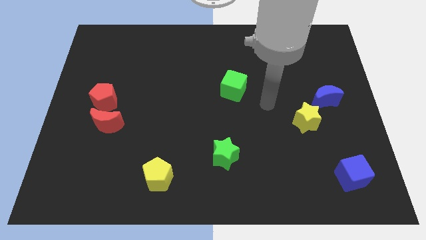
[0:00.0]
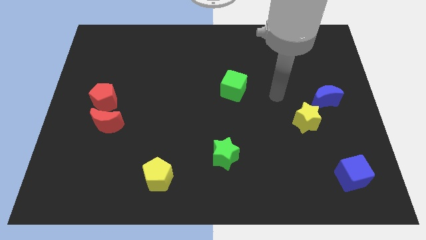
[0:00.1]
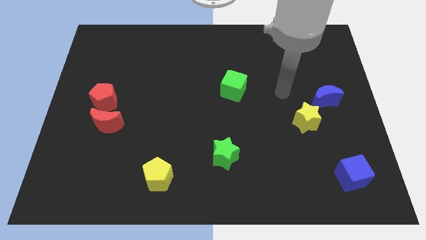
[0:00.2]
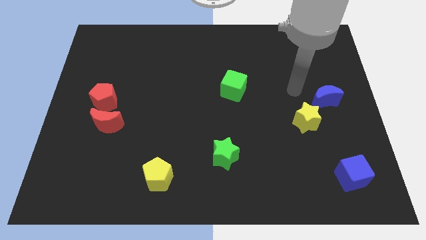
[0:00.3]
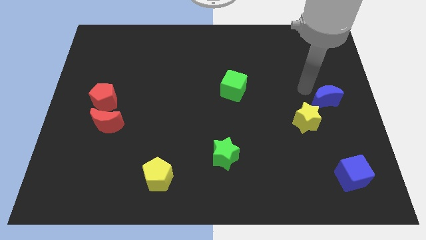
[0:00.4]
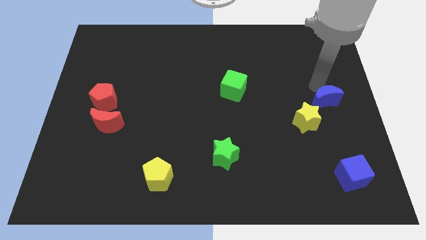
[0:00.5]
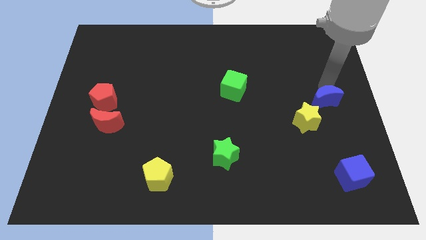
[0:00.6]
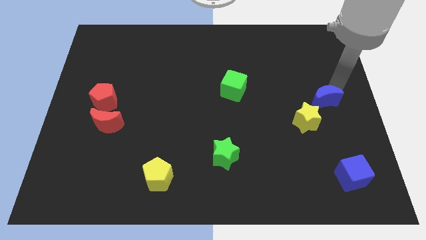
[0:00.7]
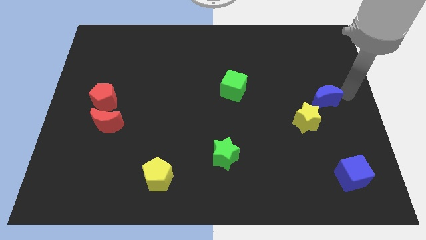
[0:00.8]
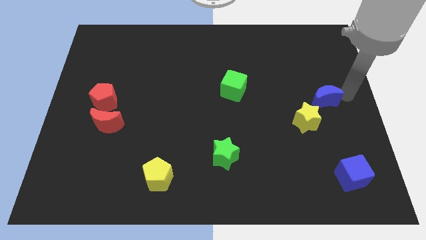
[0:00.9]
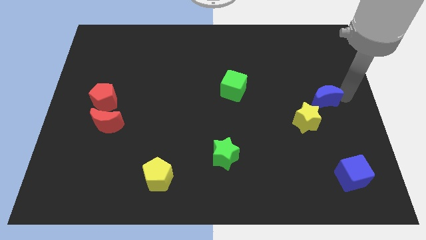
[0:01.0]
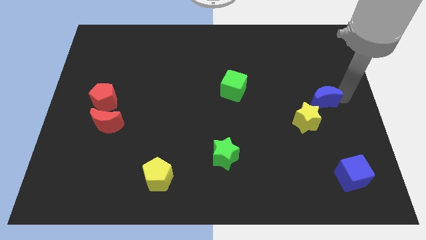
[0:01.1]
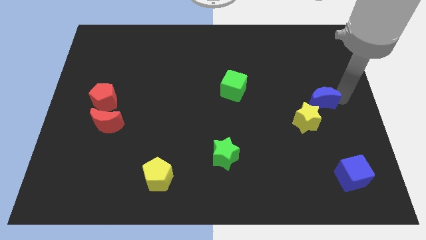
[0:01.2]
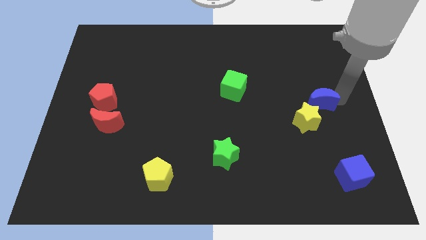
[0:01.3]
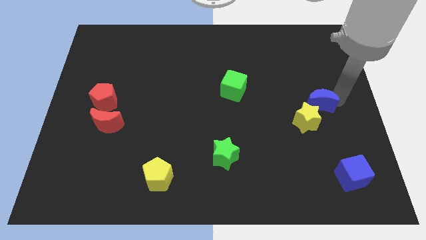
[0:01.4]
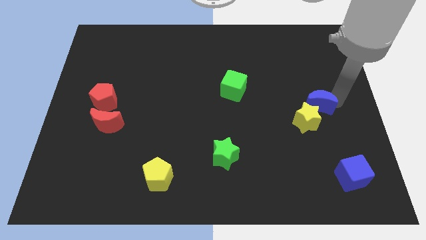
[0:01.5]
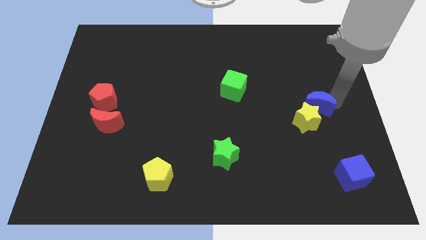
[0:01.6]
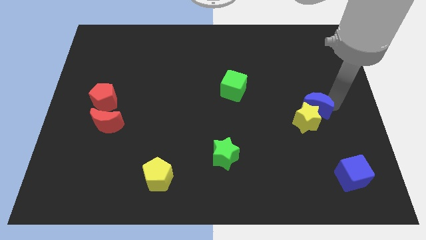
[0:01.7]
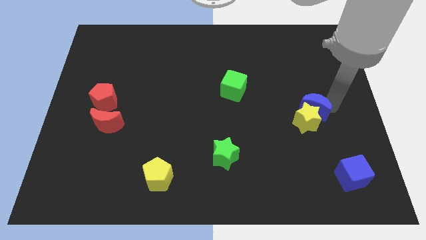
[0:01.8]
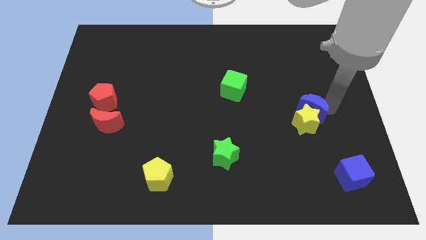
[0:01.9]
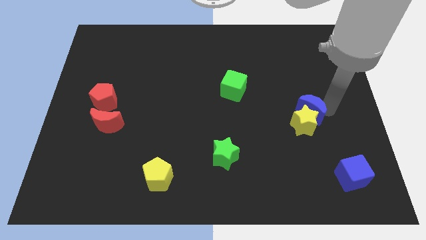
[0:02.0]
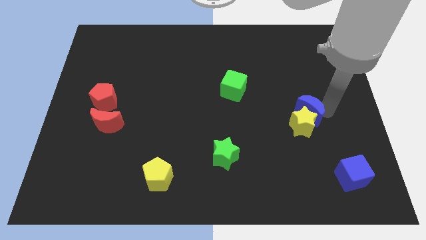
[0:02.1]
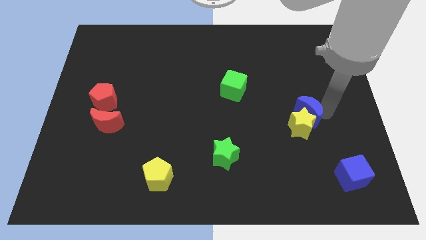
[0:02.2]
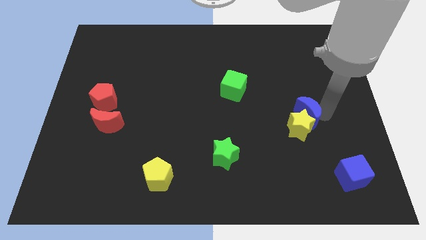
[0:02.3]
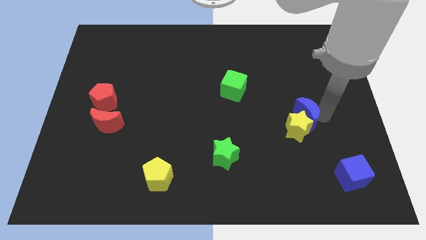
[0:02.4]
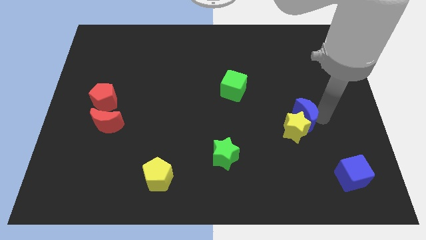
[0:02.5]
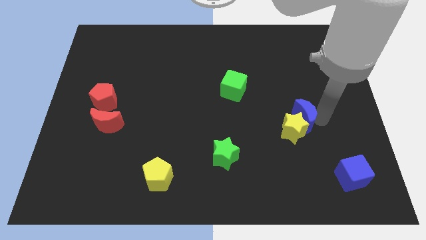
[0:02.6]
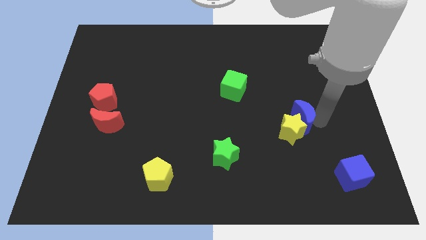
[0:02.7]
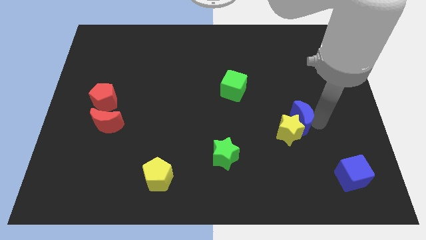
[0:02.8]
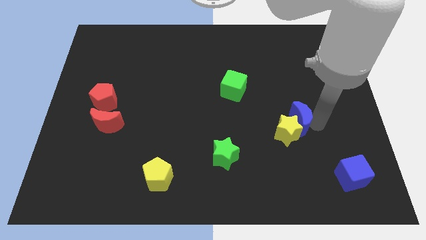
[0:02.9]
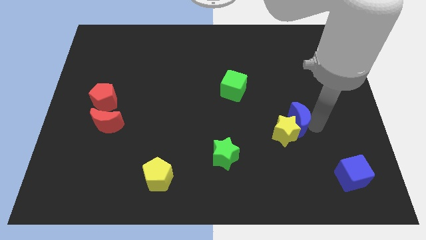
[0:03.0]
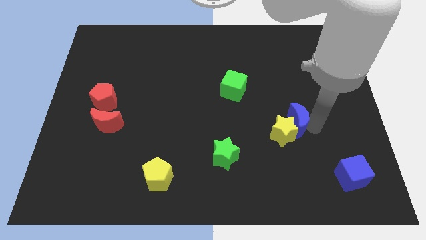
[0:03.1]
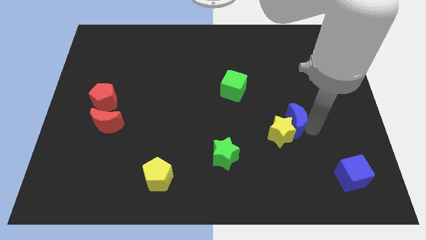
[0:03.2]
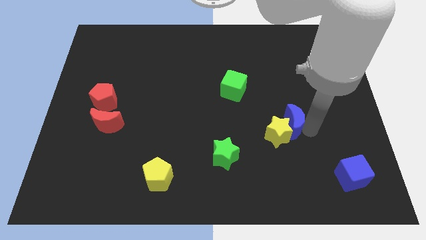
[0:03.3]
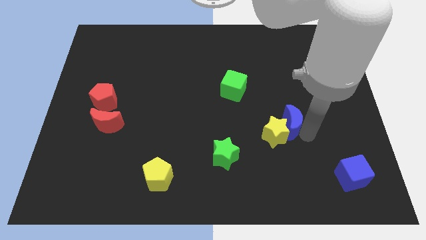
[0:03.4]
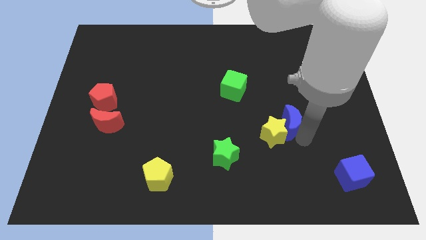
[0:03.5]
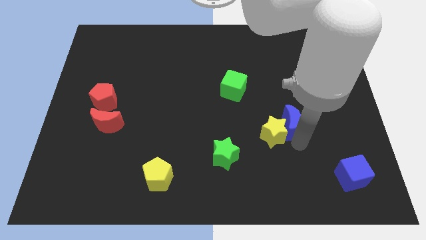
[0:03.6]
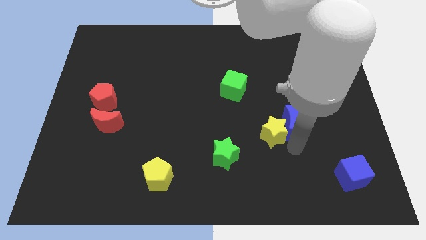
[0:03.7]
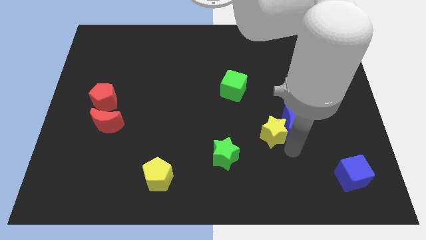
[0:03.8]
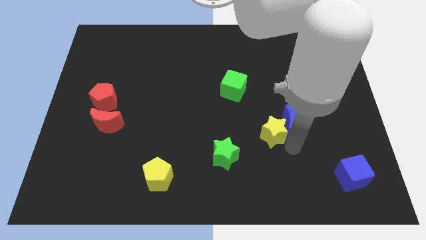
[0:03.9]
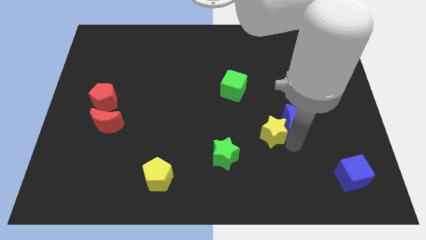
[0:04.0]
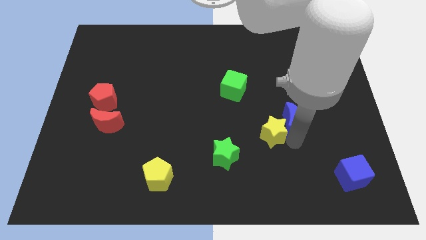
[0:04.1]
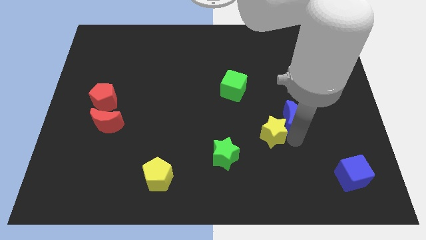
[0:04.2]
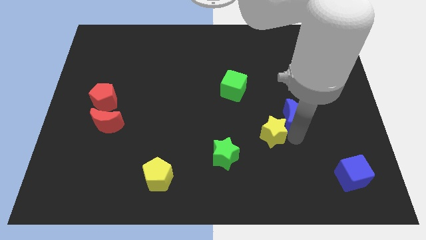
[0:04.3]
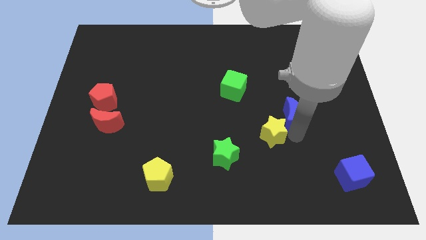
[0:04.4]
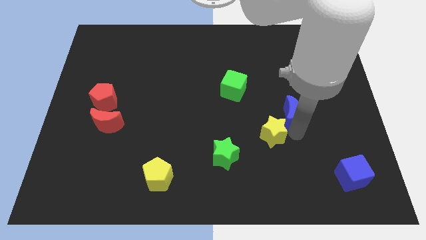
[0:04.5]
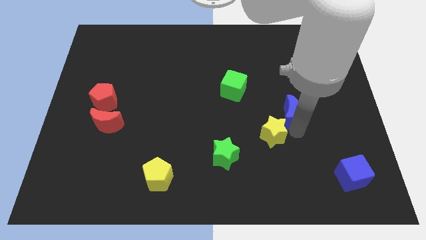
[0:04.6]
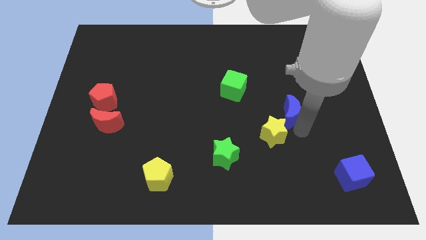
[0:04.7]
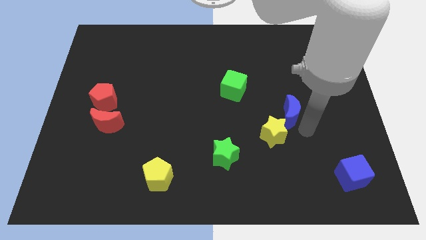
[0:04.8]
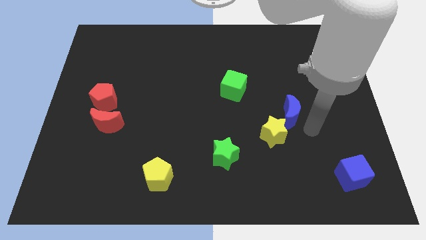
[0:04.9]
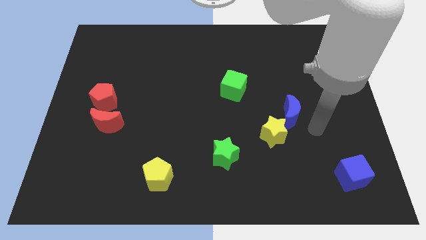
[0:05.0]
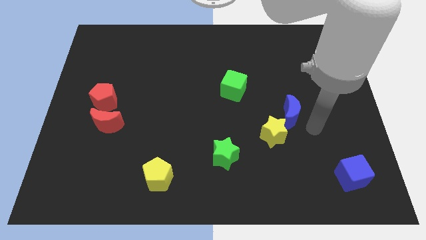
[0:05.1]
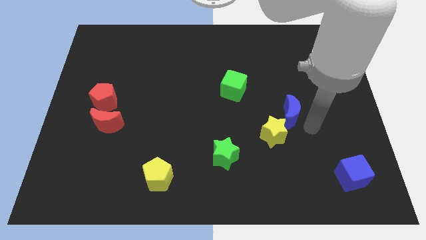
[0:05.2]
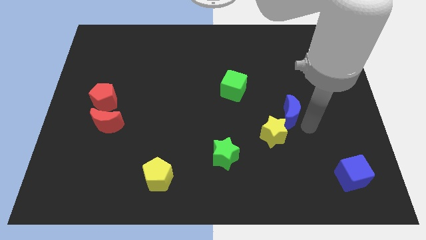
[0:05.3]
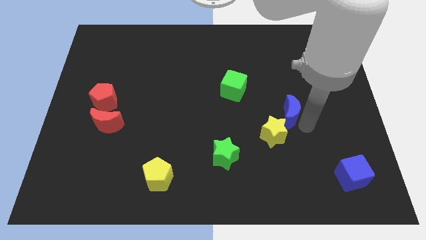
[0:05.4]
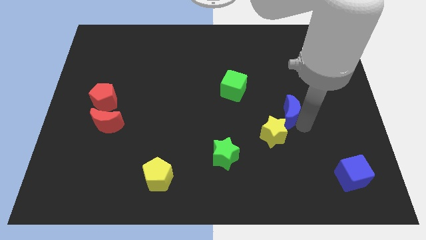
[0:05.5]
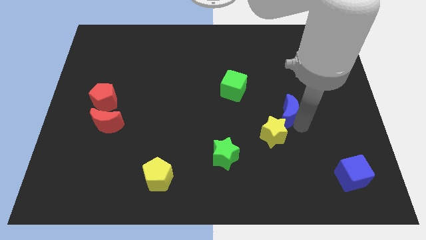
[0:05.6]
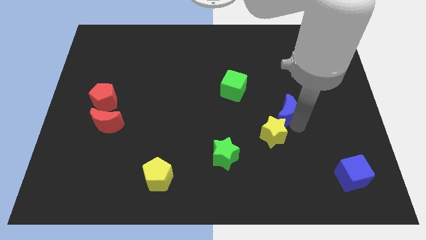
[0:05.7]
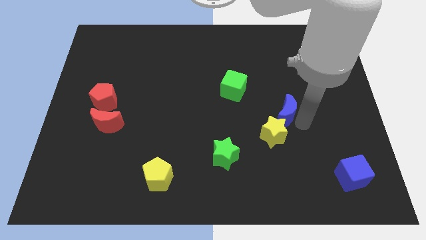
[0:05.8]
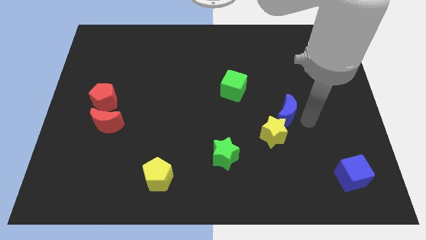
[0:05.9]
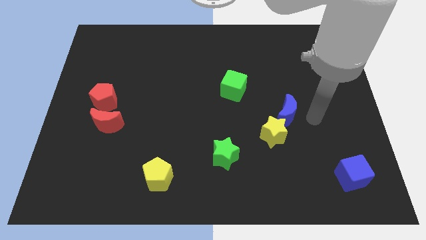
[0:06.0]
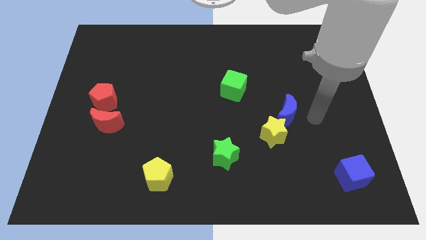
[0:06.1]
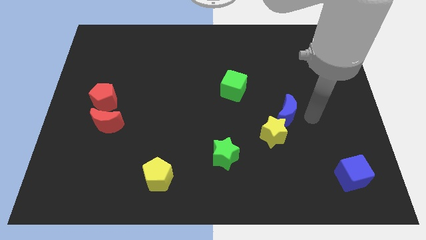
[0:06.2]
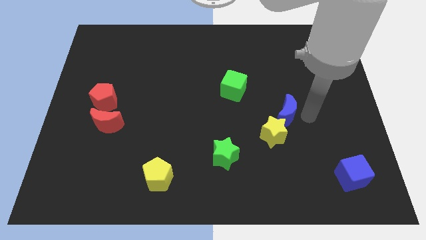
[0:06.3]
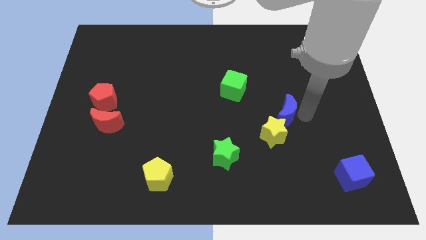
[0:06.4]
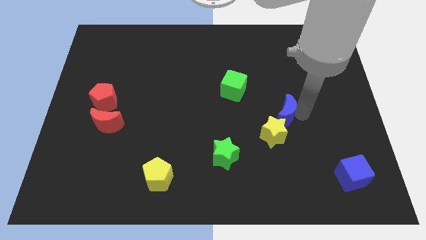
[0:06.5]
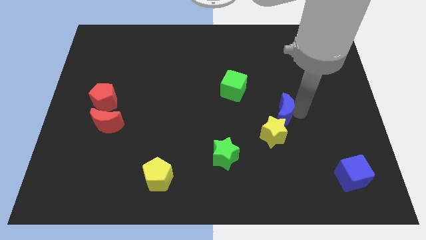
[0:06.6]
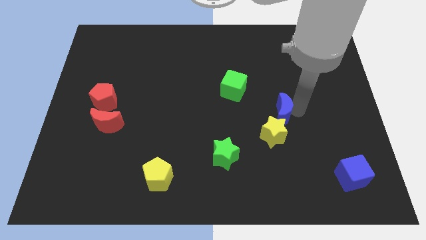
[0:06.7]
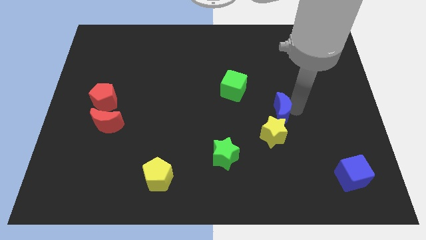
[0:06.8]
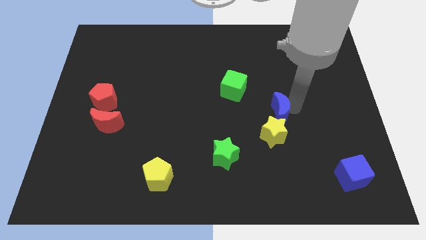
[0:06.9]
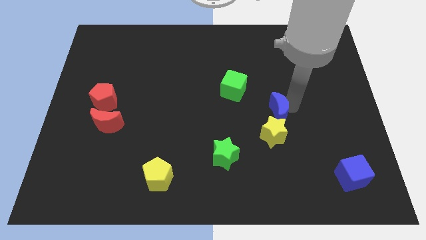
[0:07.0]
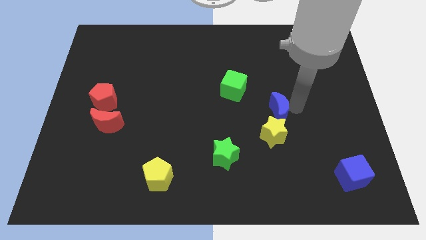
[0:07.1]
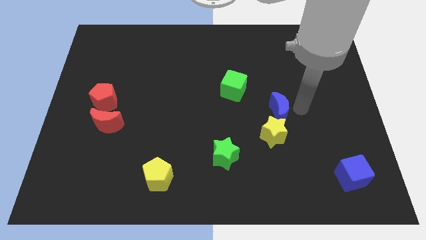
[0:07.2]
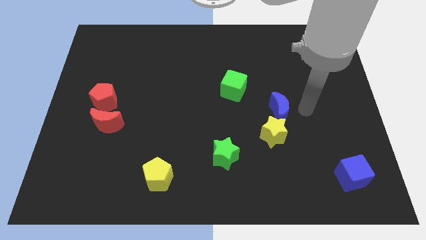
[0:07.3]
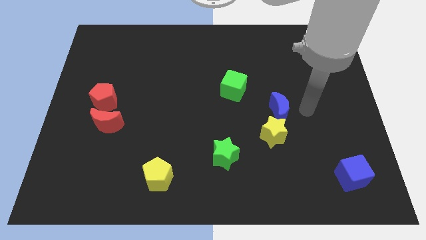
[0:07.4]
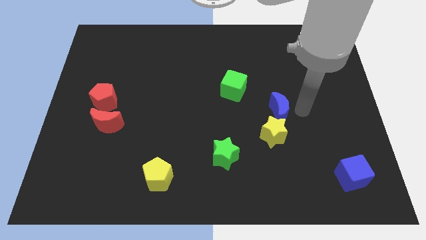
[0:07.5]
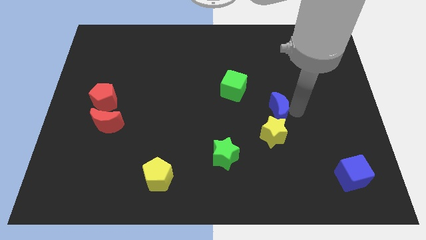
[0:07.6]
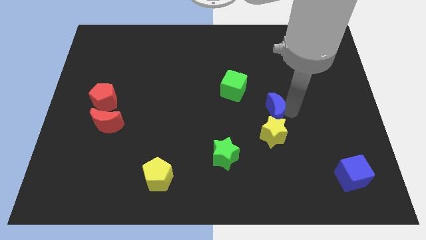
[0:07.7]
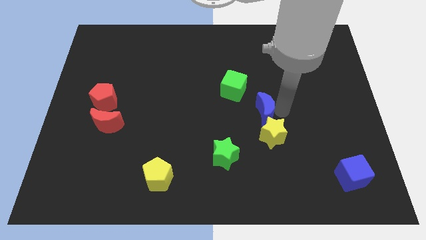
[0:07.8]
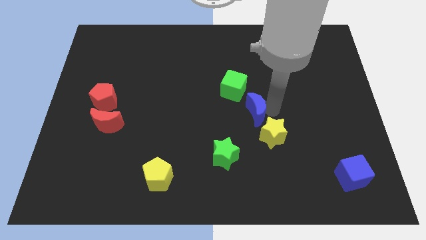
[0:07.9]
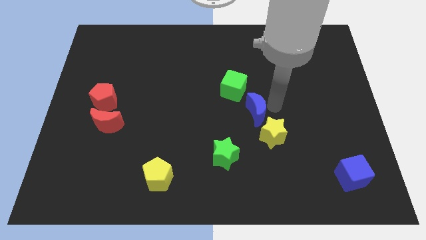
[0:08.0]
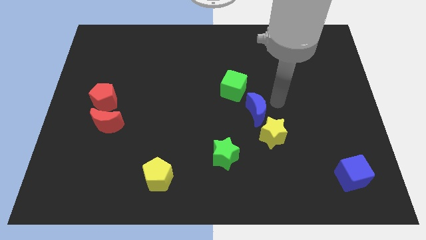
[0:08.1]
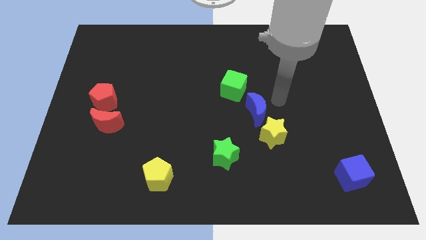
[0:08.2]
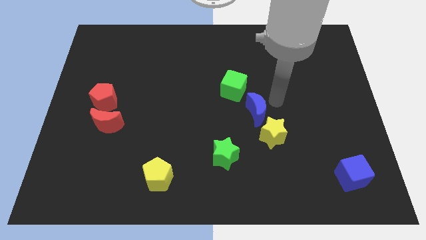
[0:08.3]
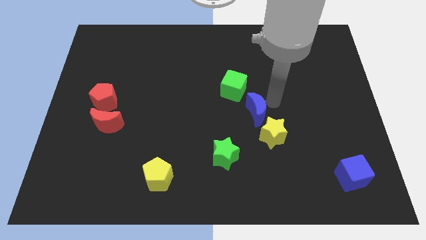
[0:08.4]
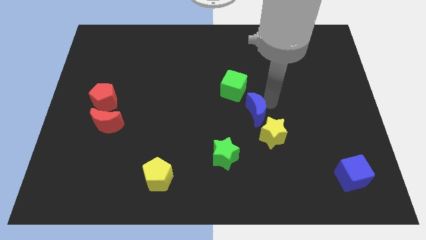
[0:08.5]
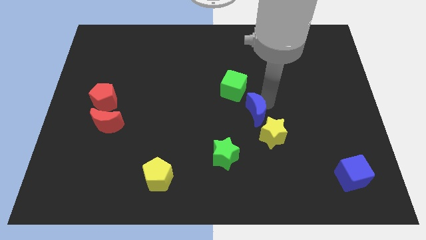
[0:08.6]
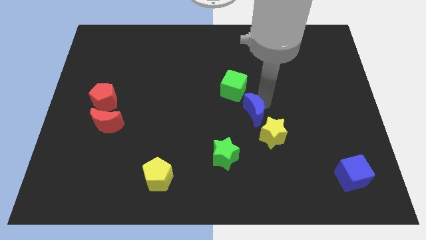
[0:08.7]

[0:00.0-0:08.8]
slide the blue moon to the bottom side of the green cube
